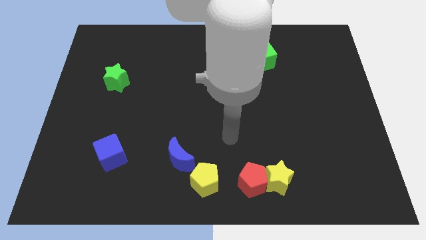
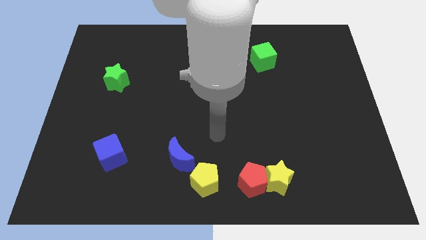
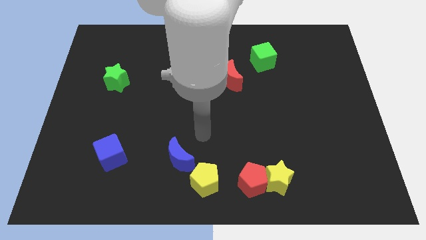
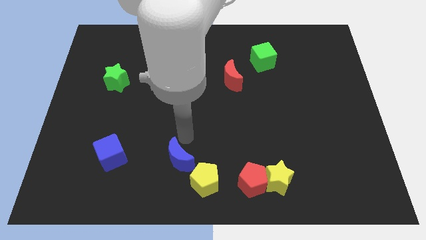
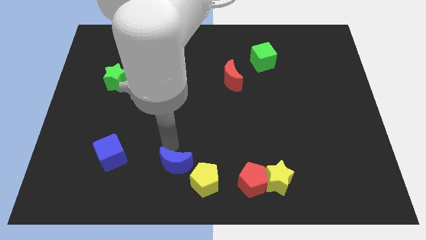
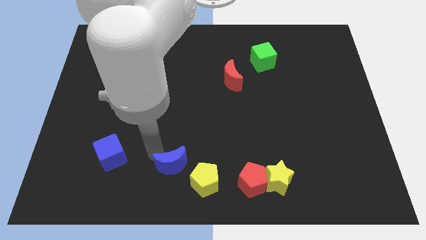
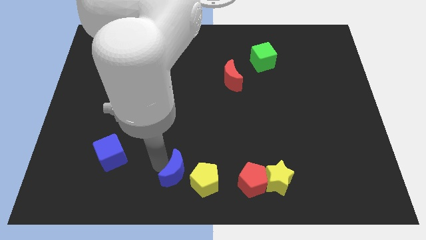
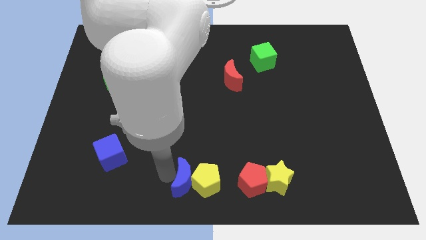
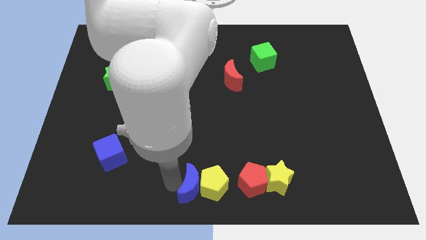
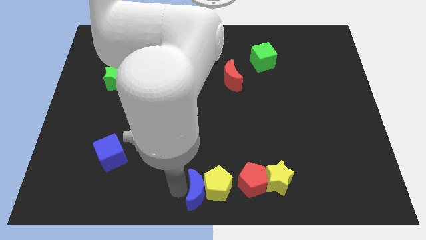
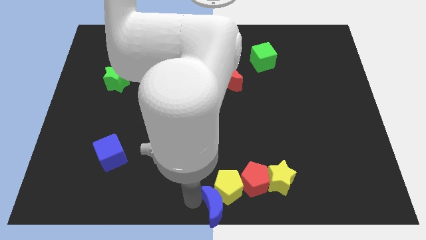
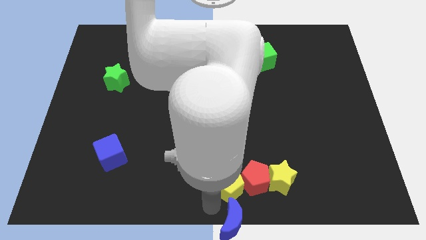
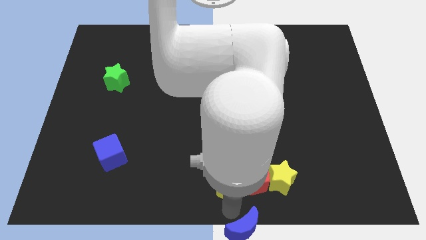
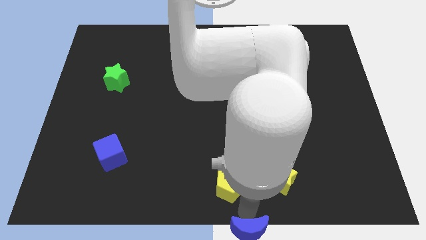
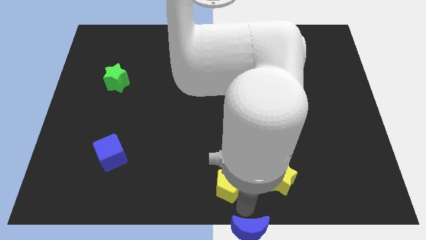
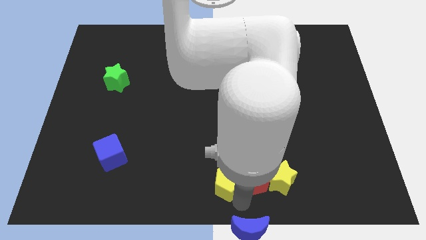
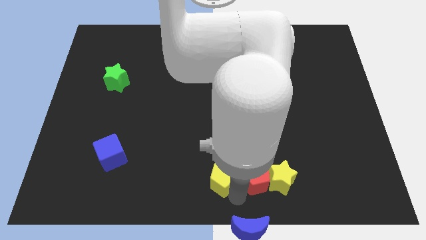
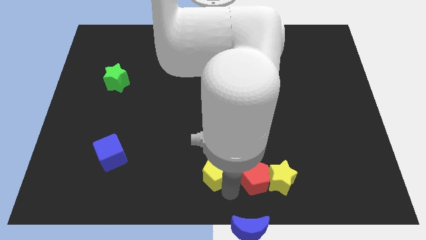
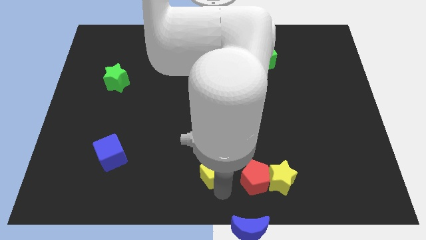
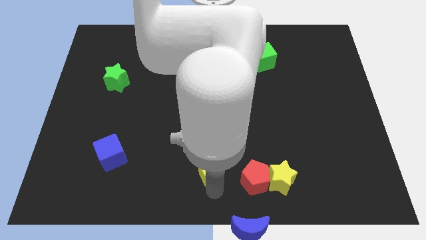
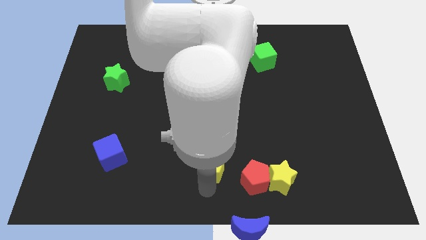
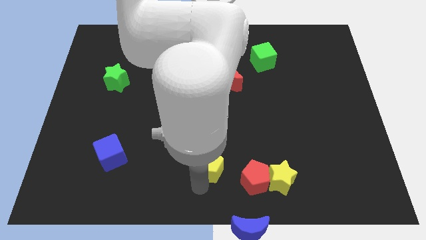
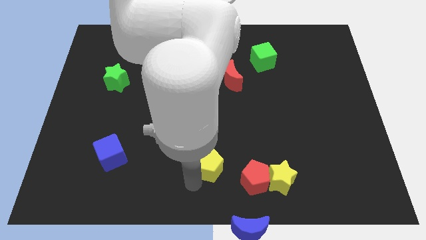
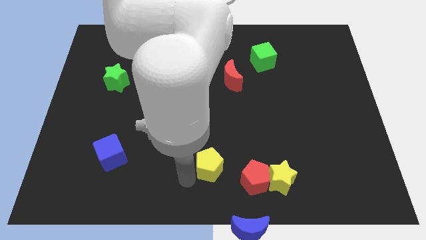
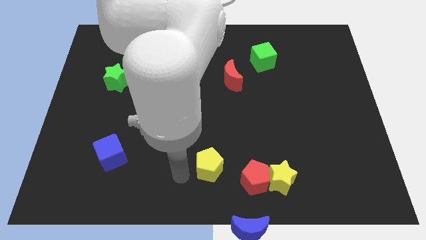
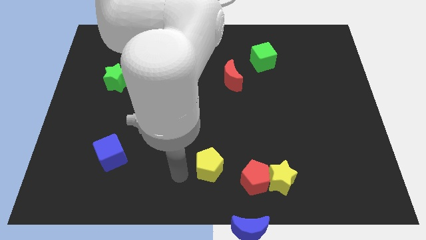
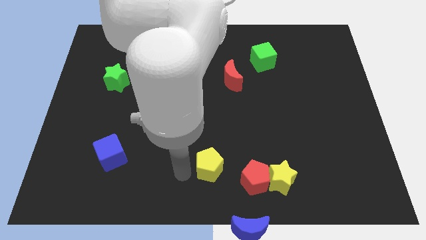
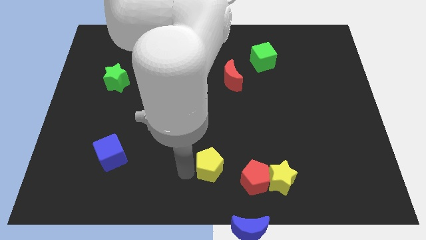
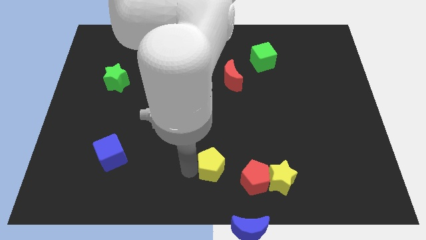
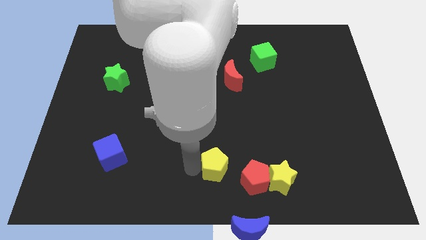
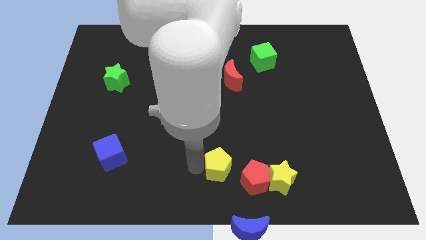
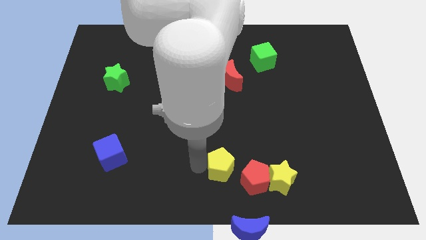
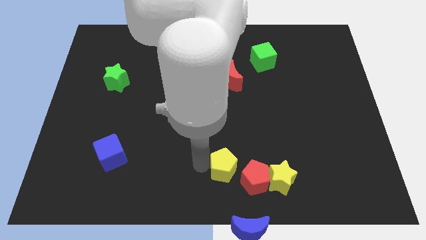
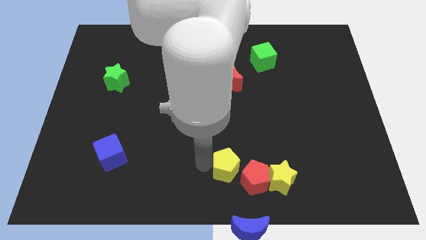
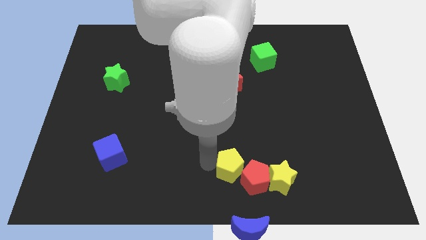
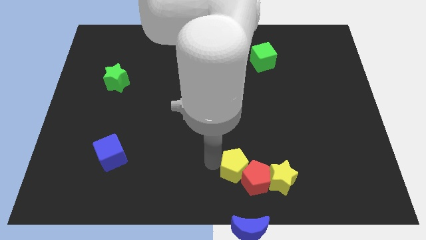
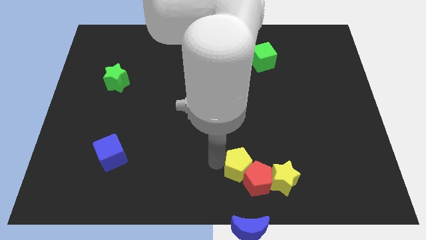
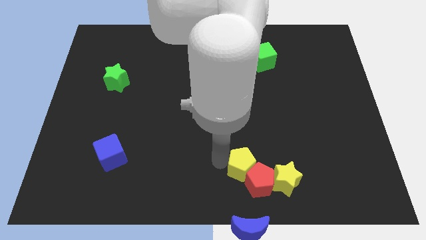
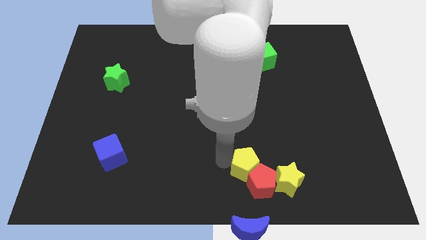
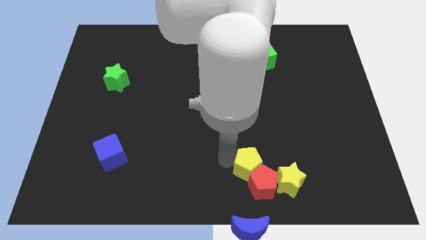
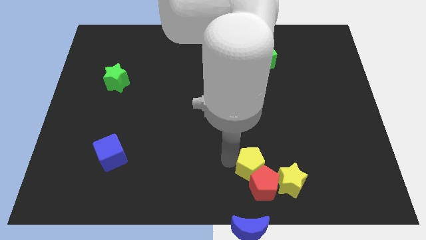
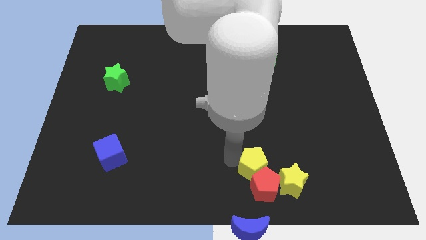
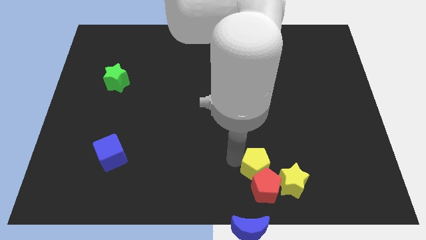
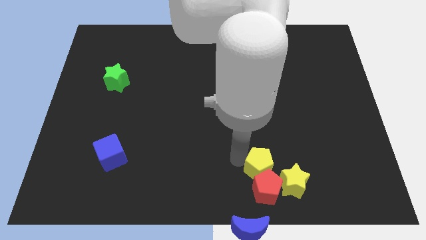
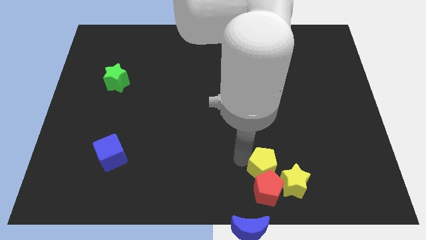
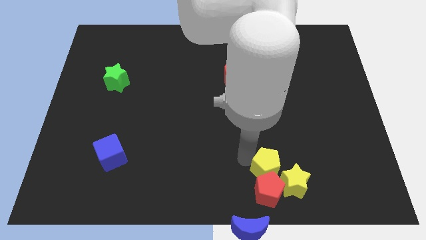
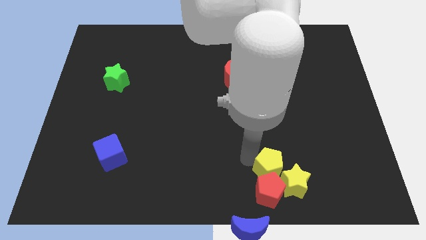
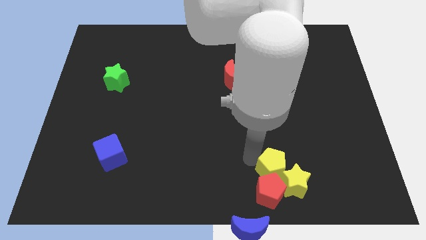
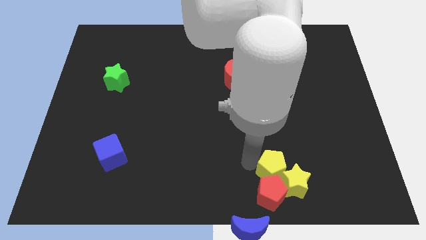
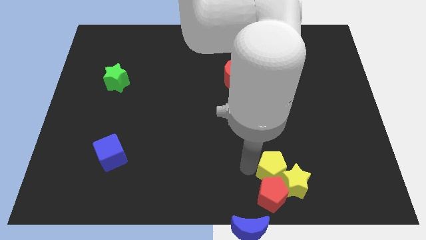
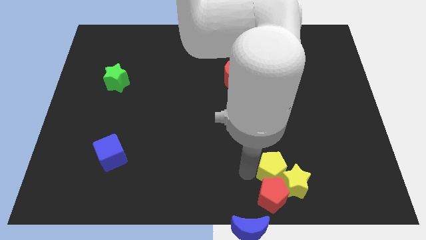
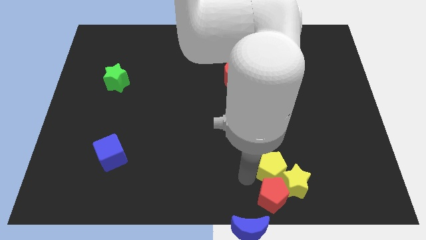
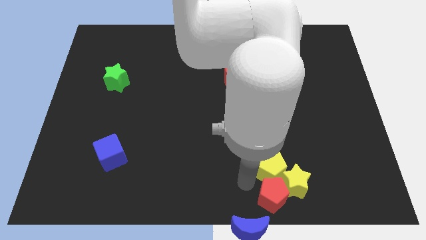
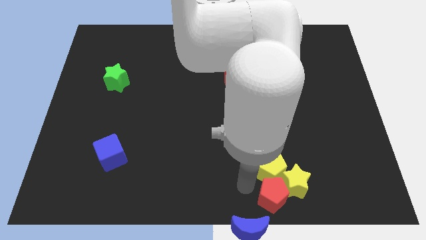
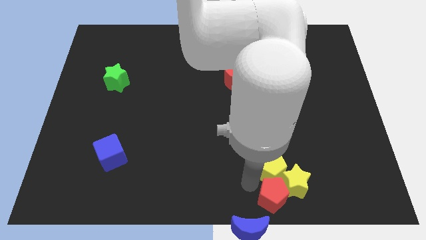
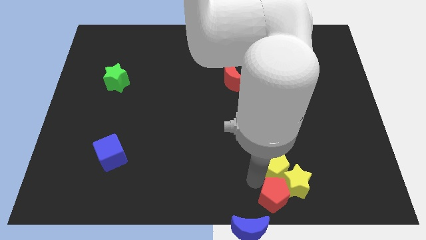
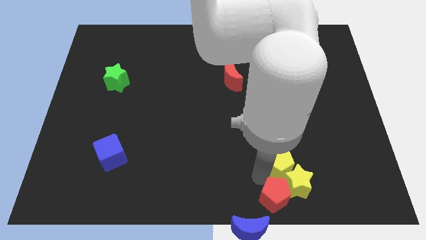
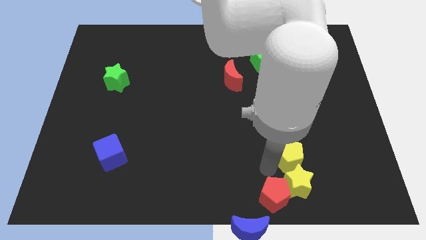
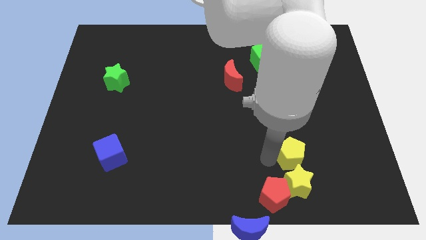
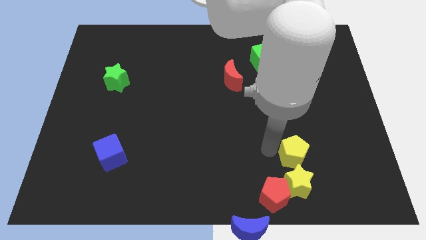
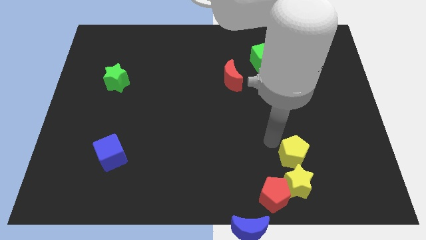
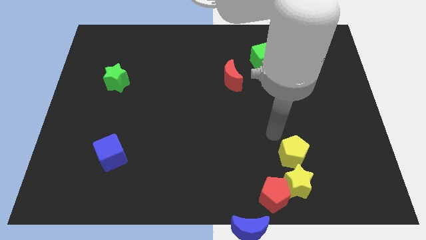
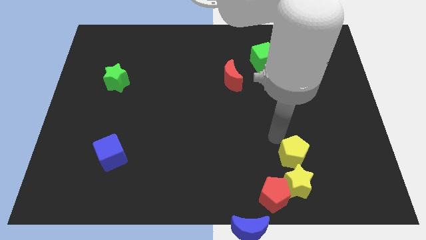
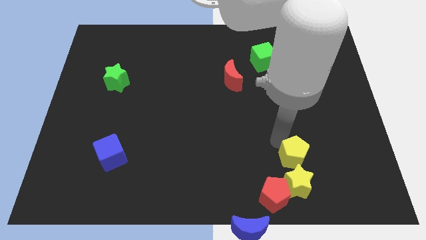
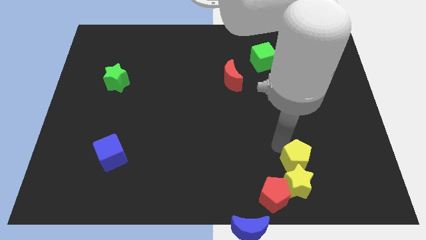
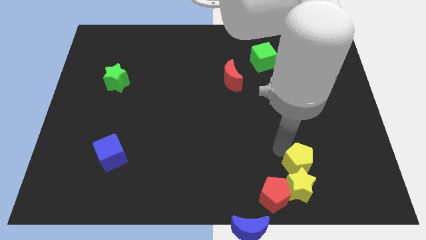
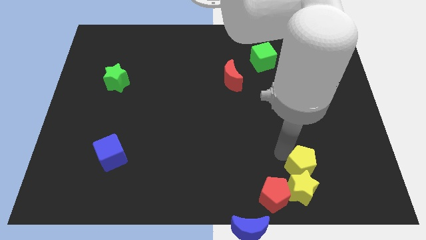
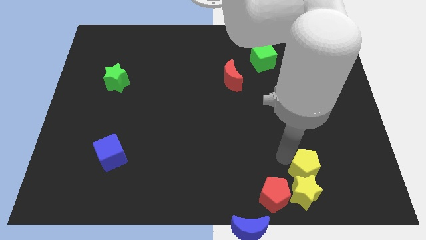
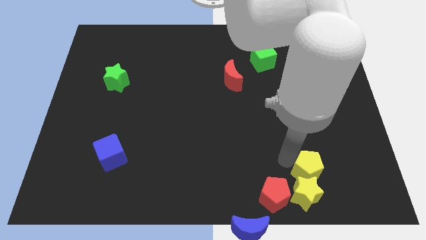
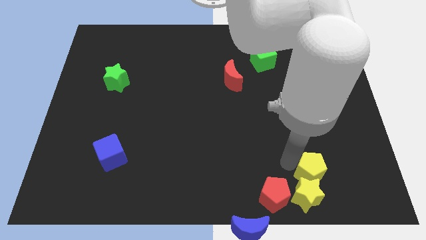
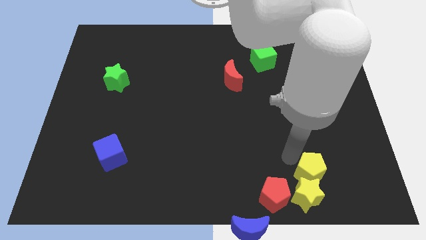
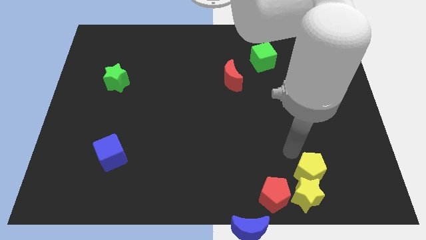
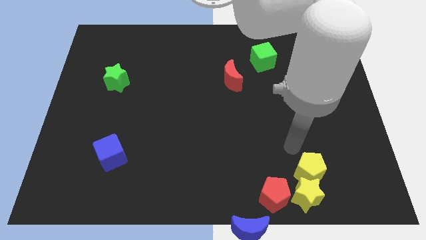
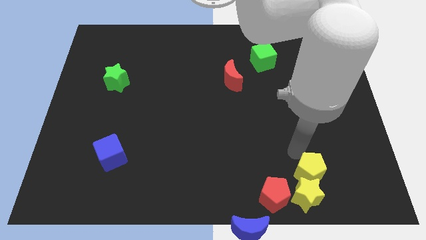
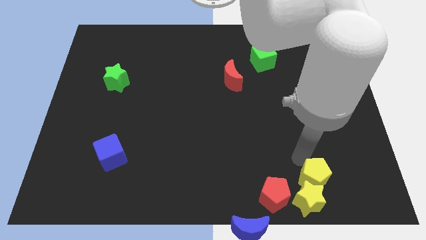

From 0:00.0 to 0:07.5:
push the yellow pentagon just right of the red pentagon
